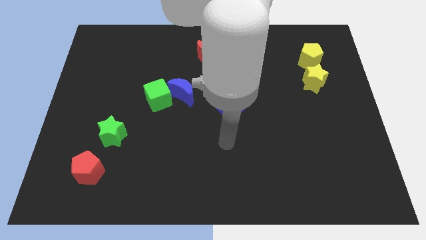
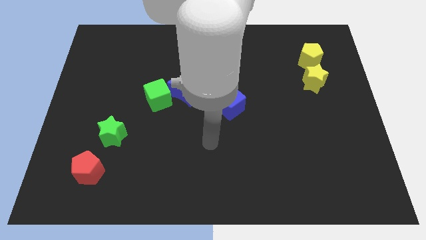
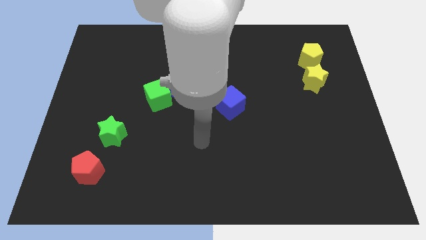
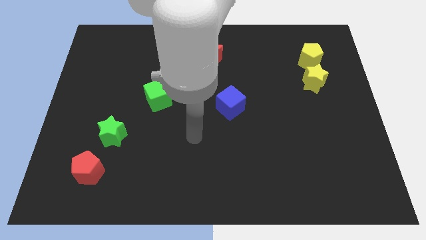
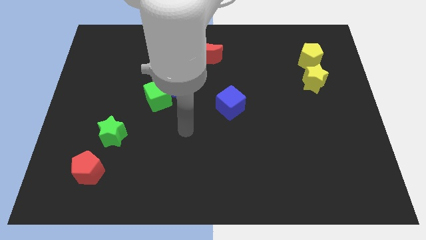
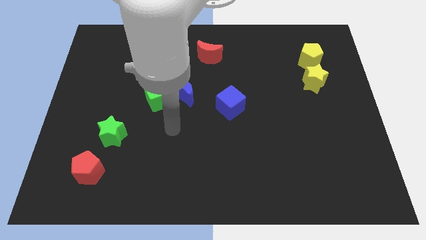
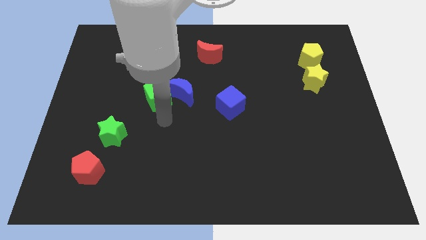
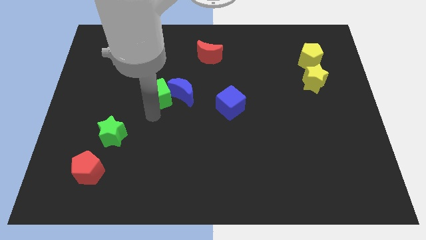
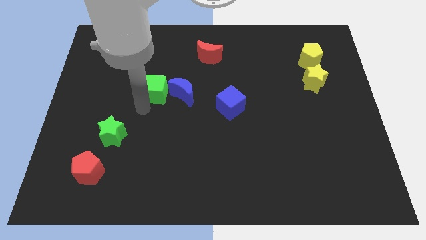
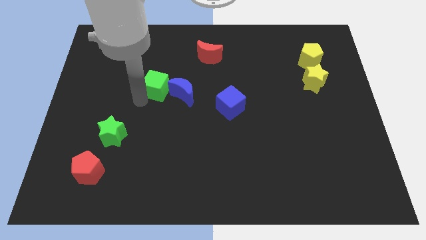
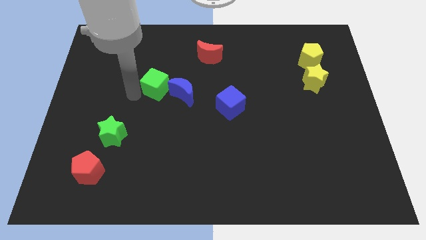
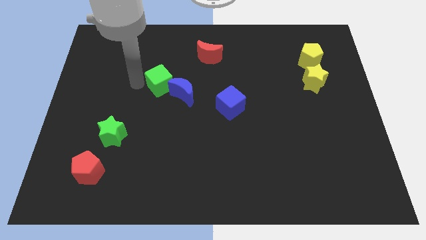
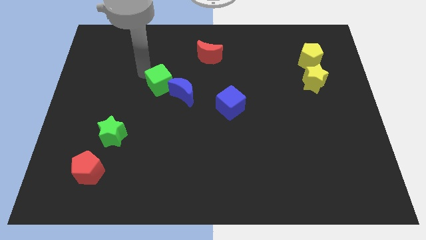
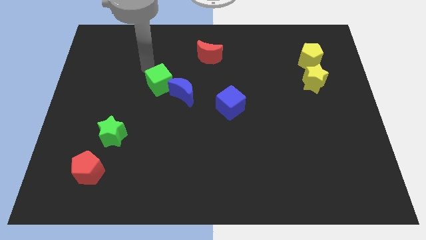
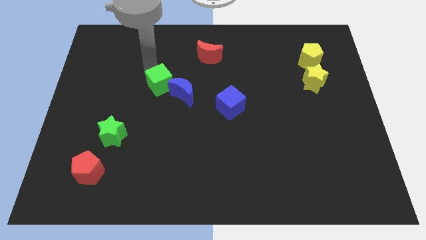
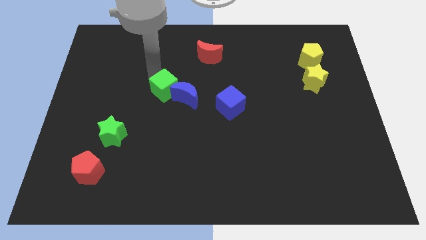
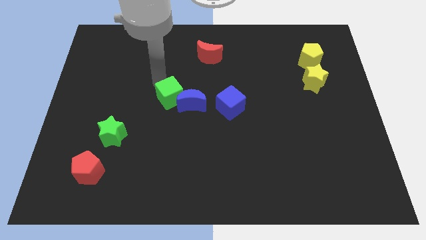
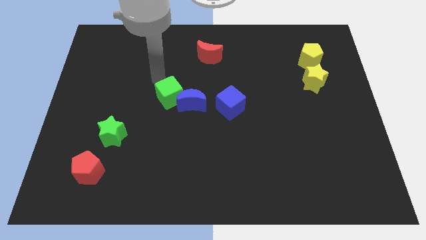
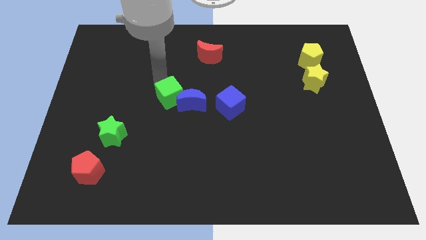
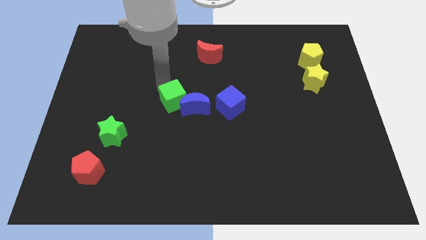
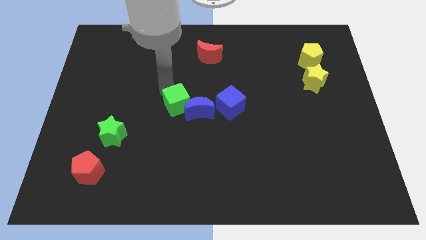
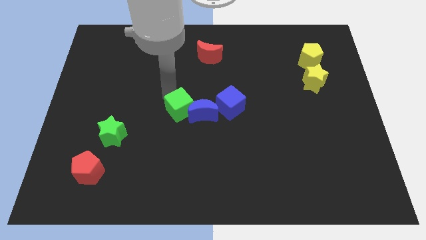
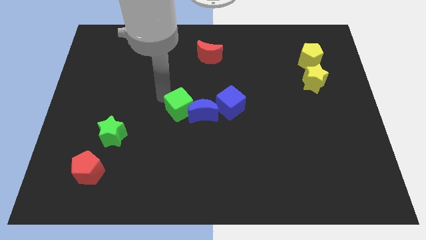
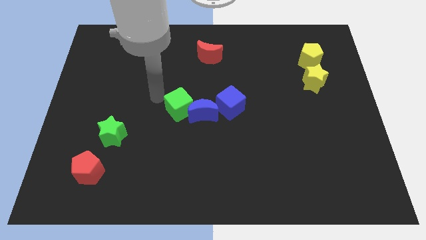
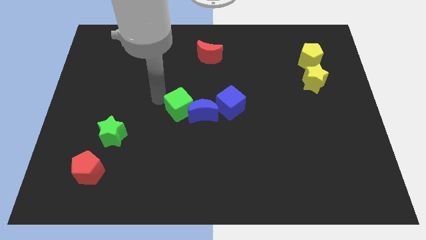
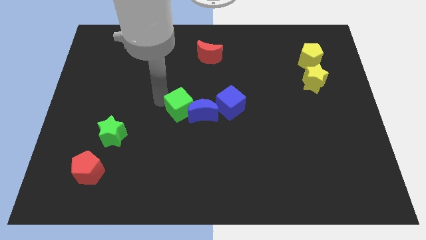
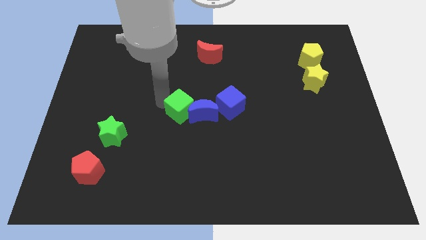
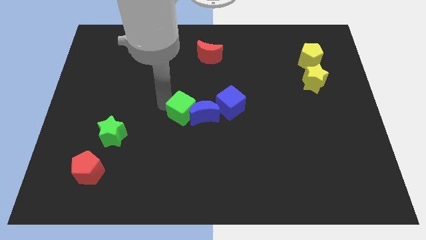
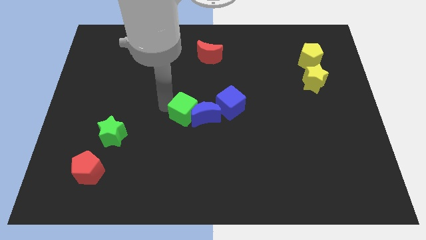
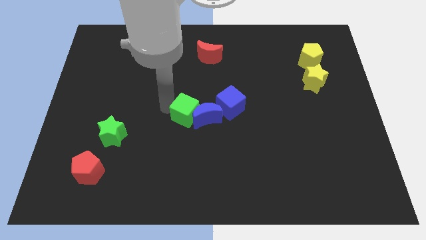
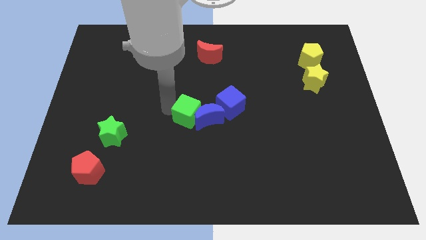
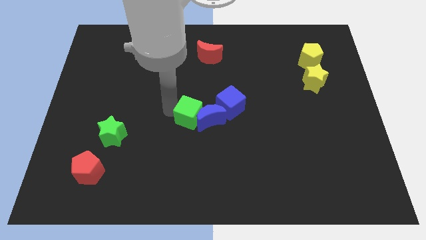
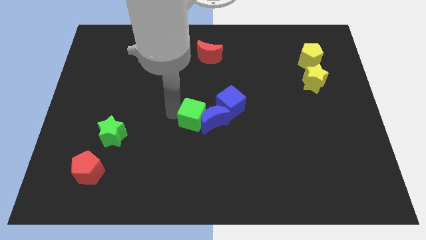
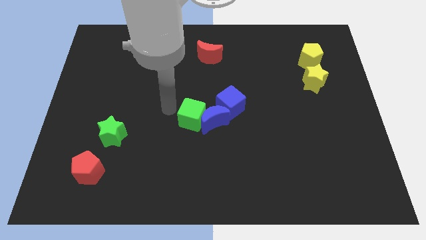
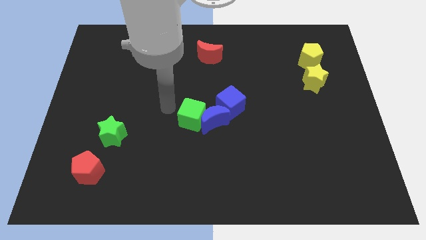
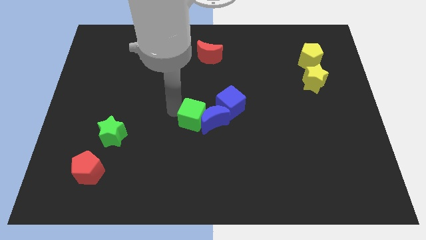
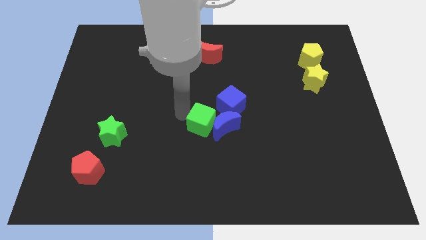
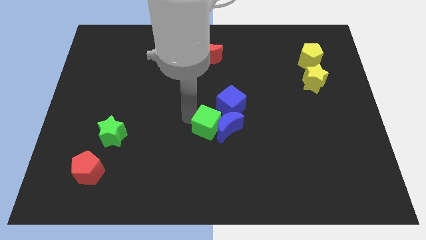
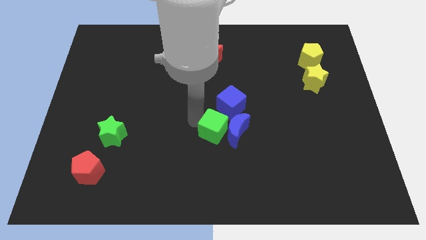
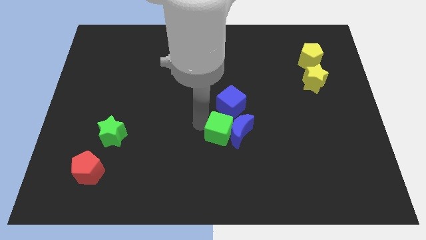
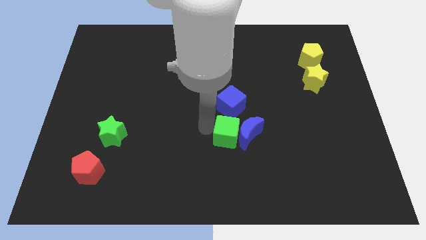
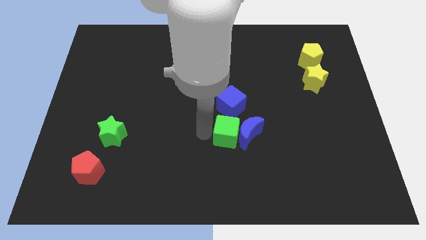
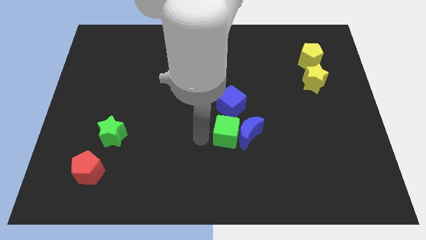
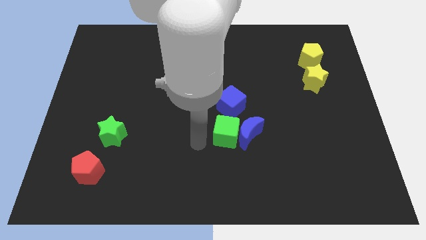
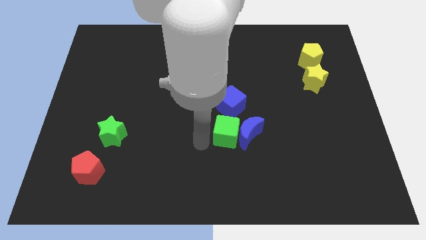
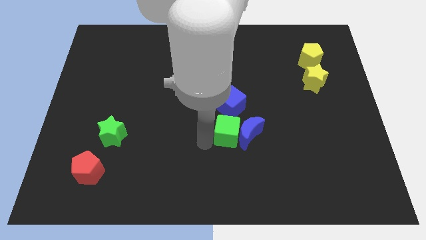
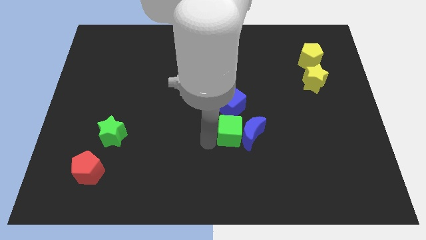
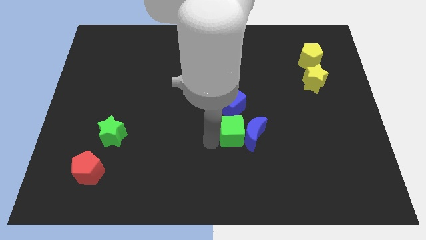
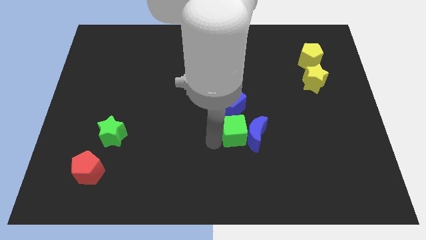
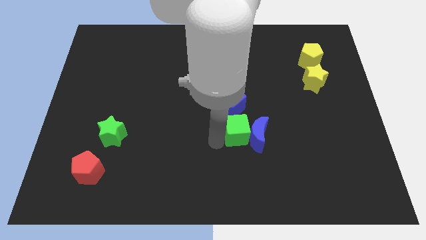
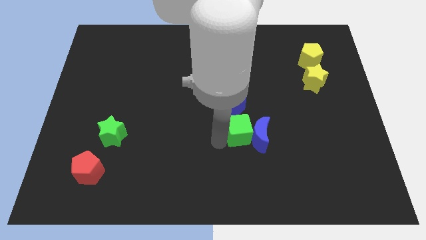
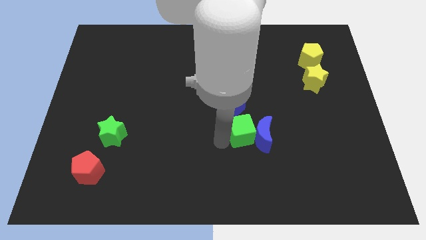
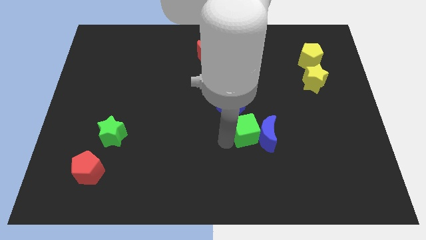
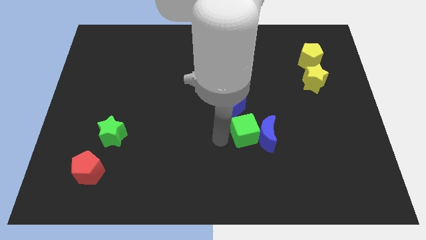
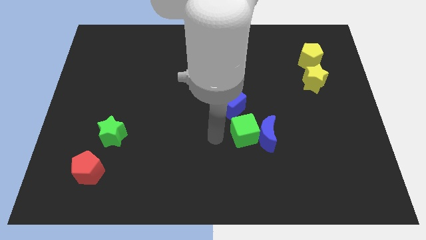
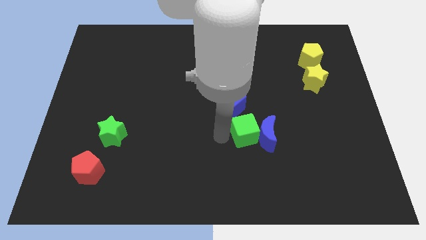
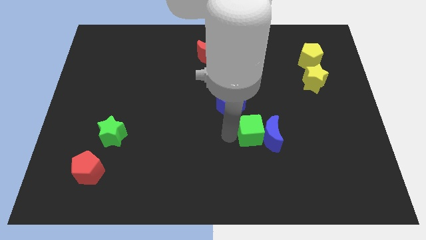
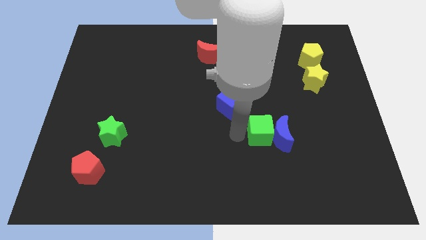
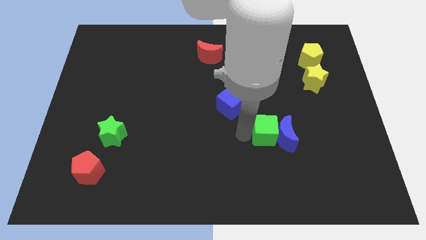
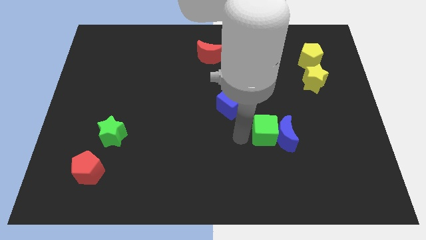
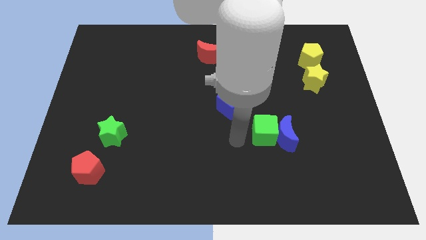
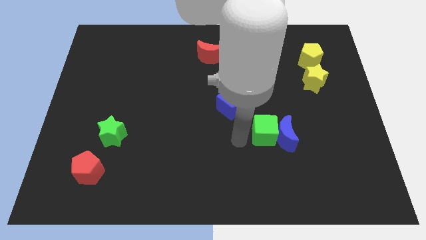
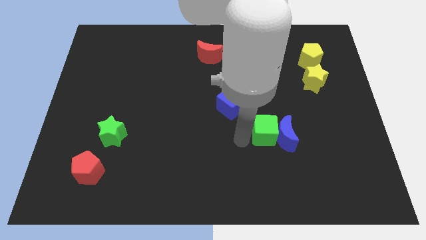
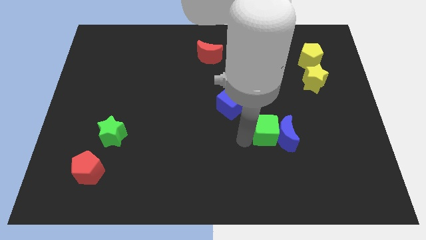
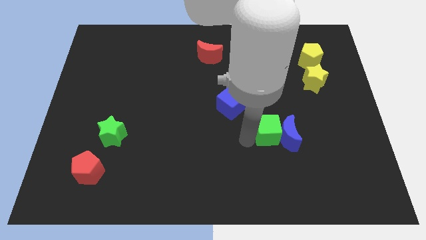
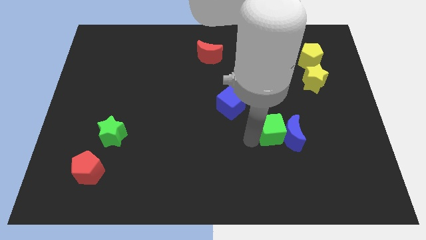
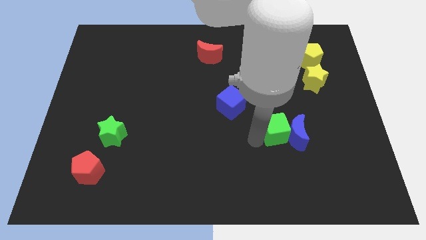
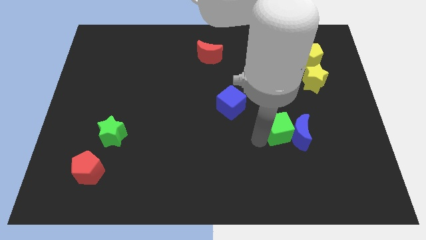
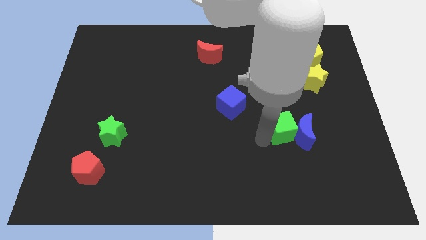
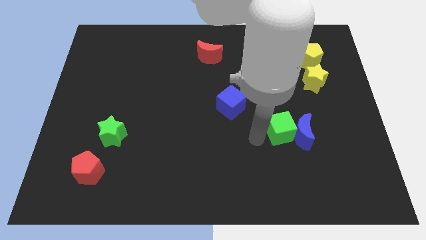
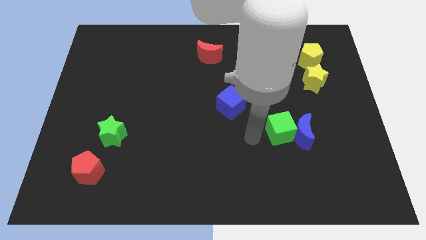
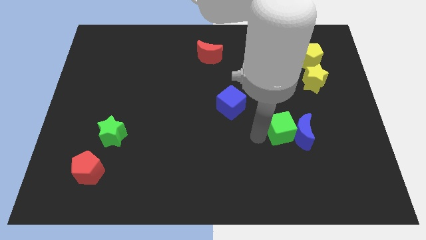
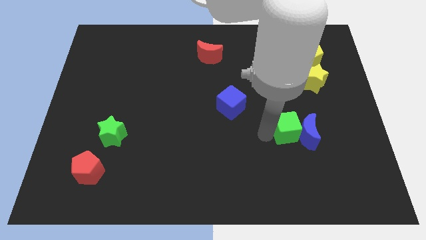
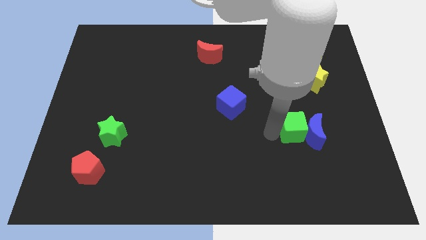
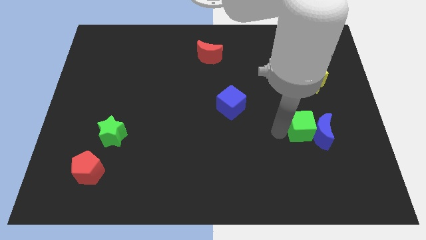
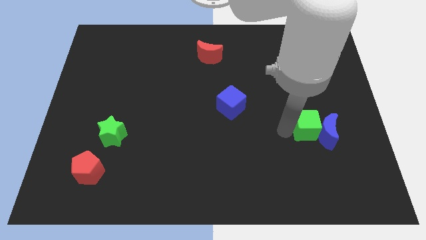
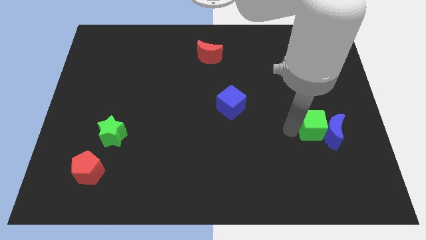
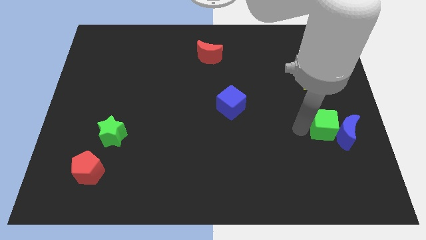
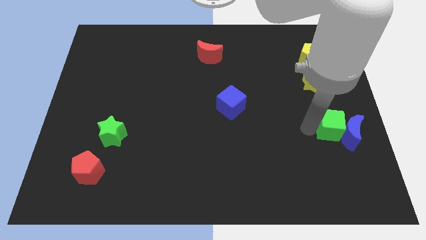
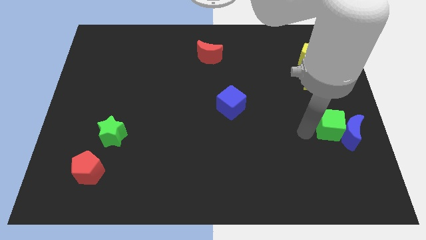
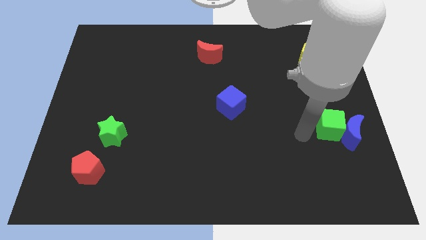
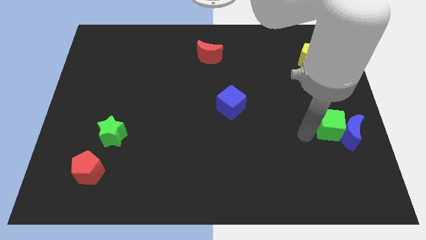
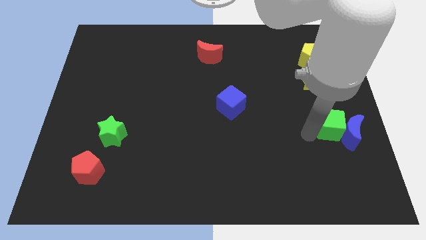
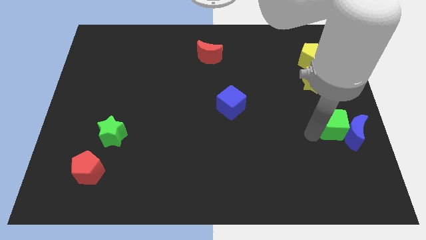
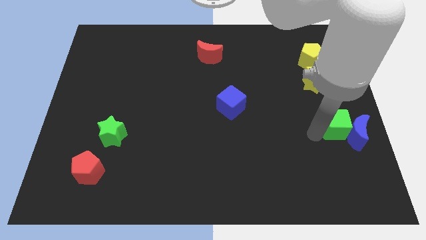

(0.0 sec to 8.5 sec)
slide the green cube to the right side of the board
